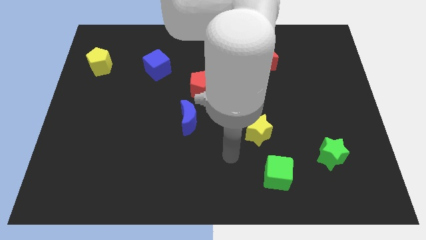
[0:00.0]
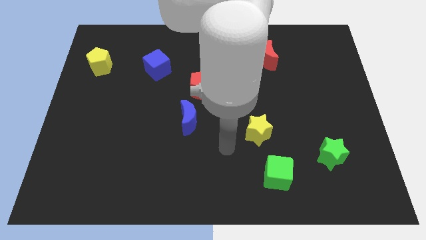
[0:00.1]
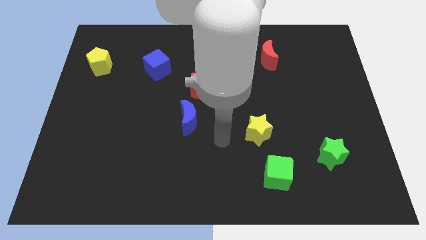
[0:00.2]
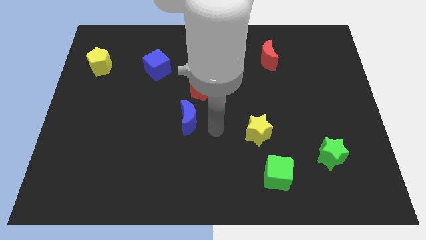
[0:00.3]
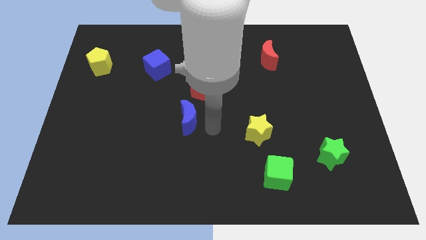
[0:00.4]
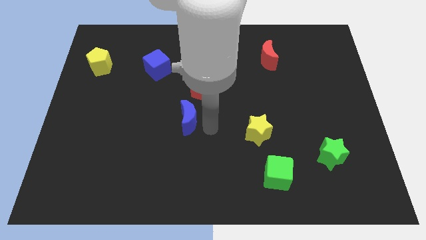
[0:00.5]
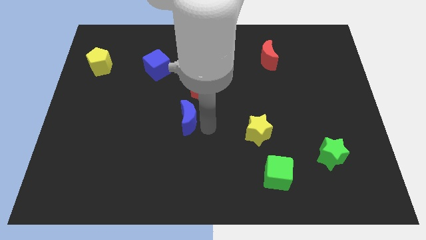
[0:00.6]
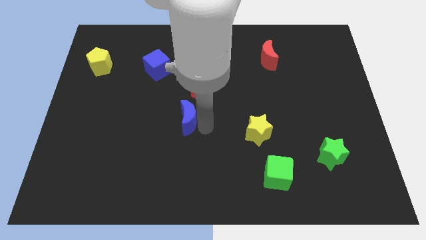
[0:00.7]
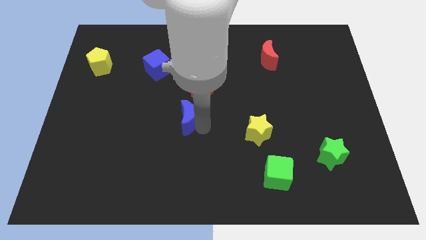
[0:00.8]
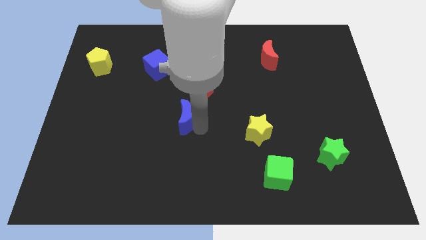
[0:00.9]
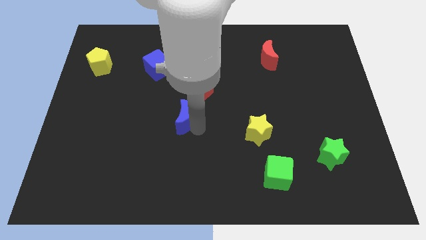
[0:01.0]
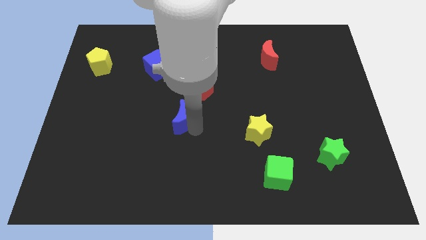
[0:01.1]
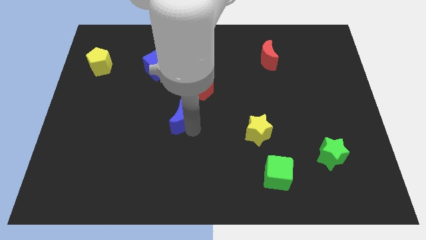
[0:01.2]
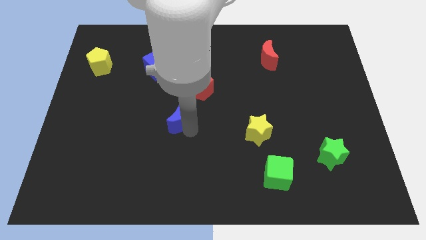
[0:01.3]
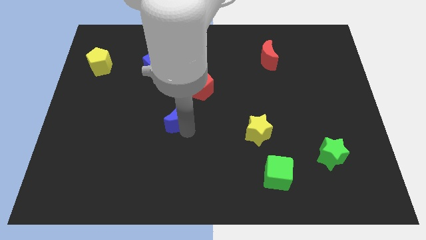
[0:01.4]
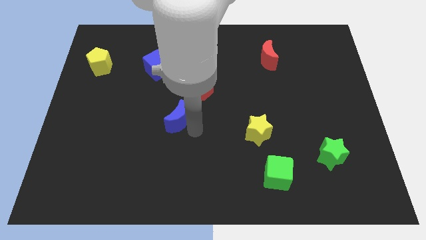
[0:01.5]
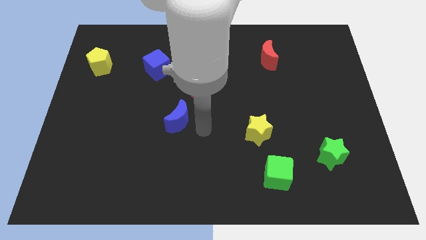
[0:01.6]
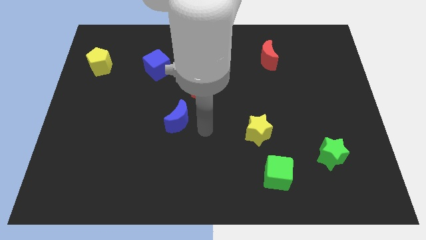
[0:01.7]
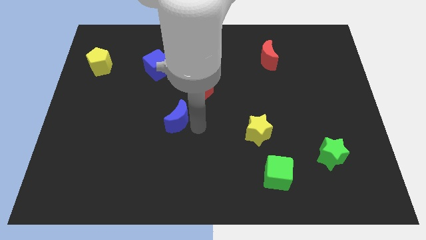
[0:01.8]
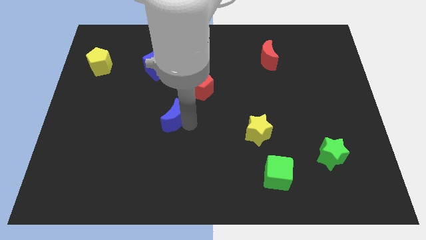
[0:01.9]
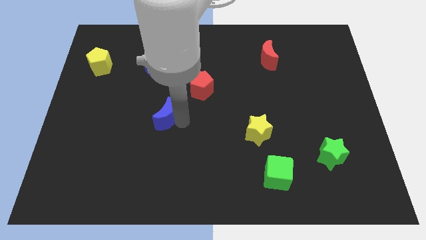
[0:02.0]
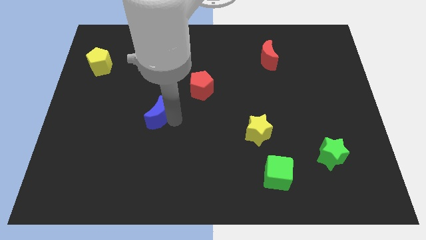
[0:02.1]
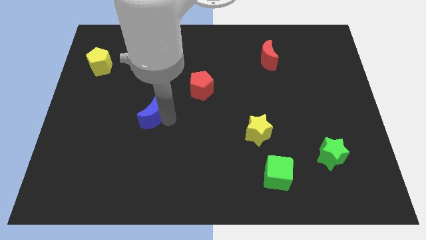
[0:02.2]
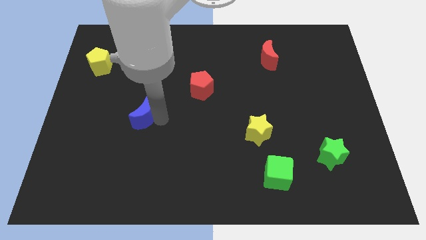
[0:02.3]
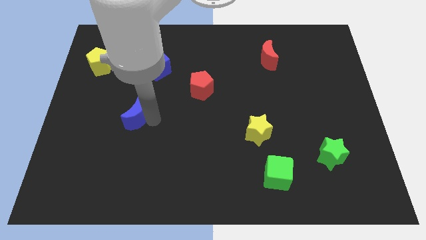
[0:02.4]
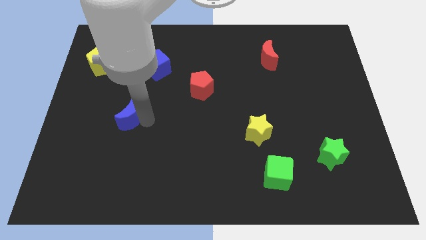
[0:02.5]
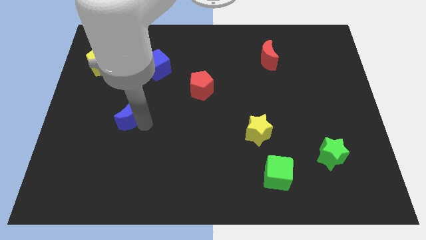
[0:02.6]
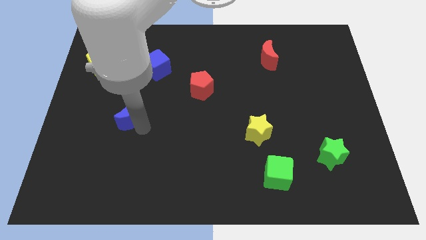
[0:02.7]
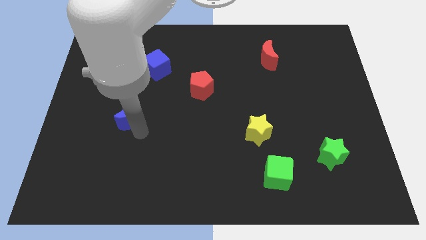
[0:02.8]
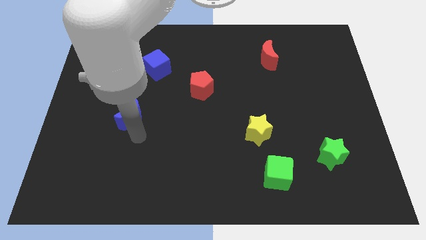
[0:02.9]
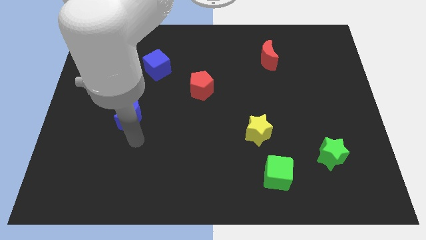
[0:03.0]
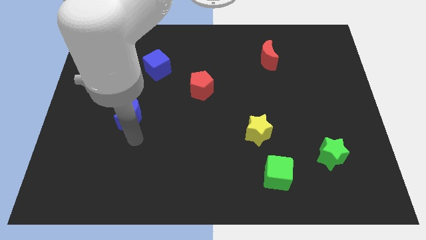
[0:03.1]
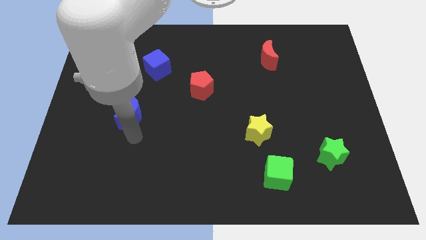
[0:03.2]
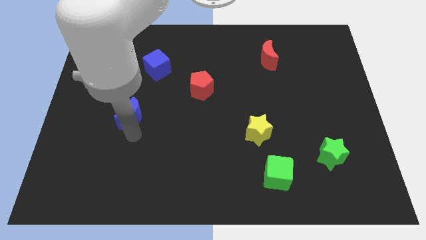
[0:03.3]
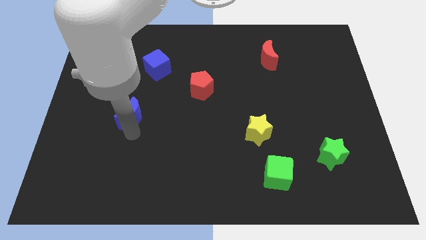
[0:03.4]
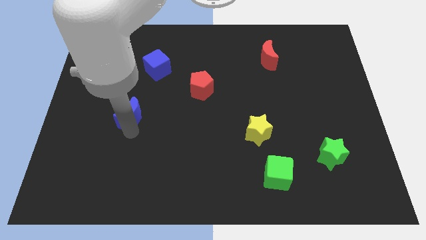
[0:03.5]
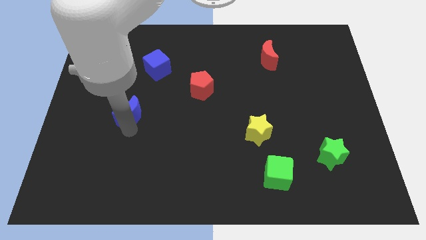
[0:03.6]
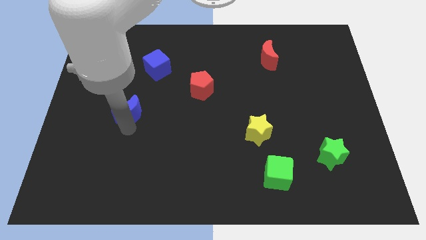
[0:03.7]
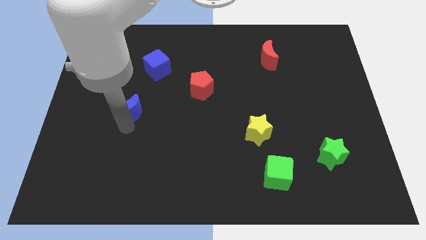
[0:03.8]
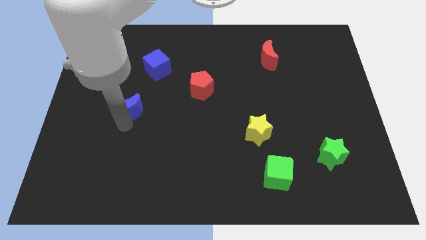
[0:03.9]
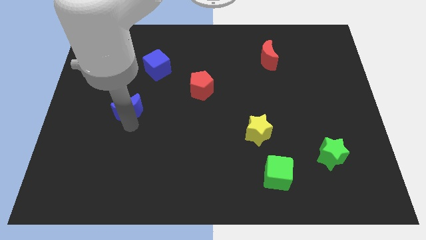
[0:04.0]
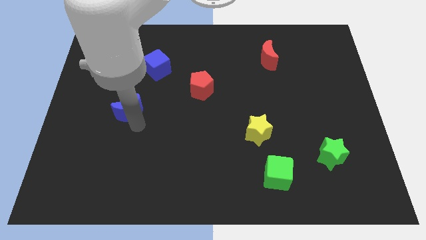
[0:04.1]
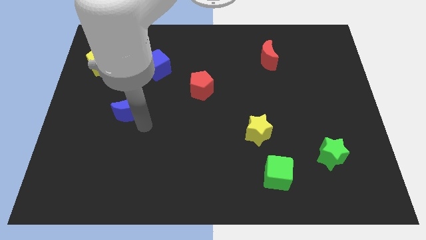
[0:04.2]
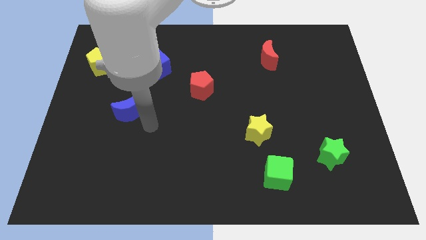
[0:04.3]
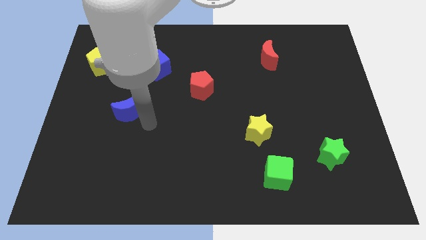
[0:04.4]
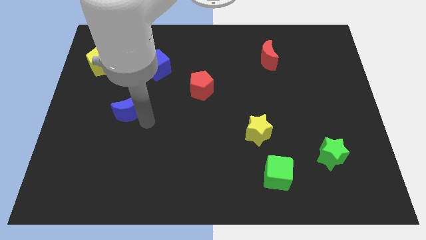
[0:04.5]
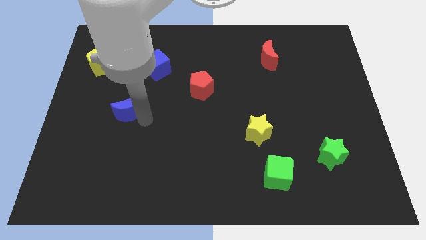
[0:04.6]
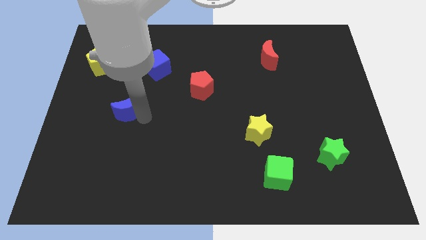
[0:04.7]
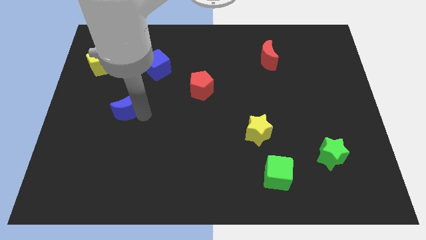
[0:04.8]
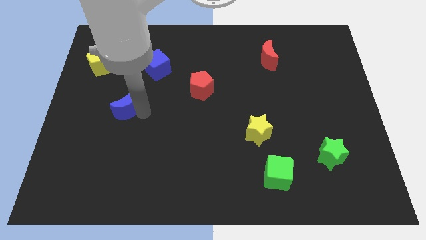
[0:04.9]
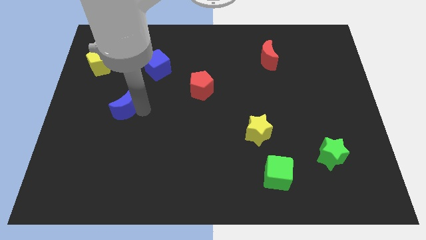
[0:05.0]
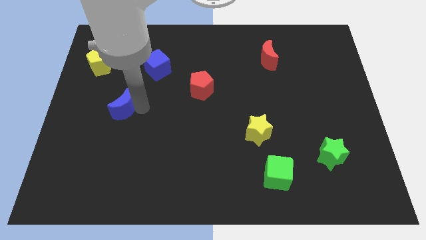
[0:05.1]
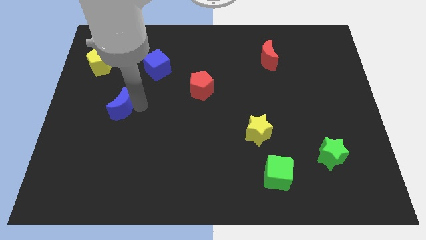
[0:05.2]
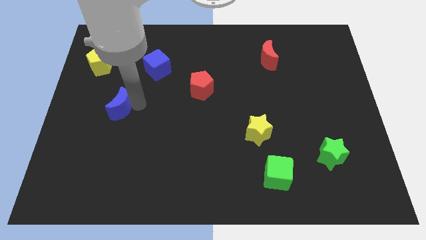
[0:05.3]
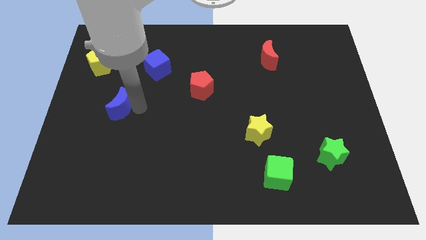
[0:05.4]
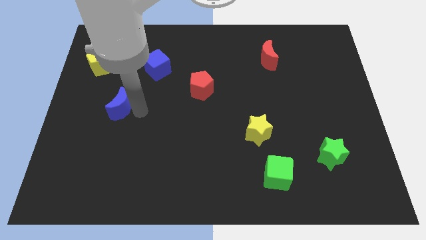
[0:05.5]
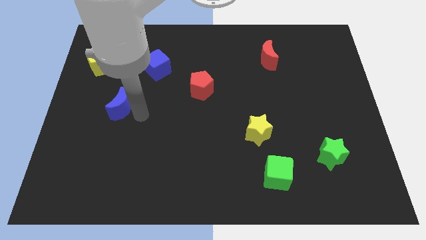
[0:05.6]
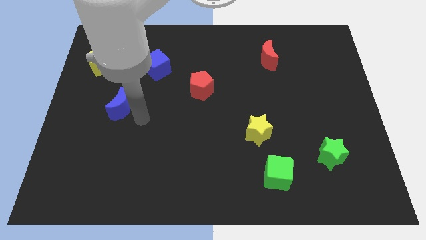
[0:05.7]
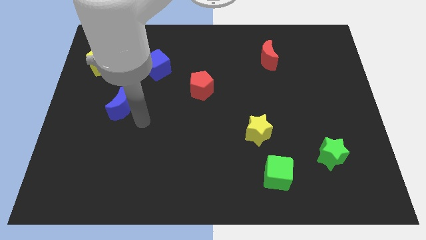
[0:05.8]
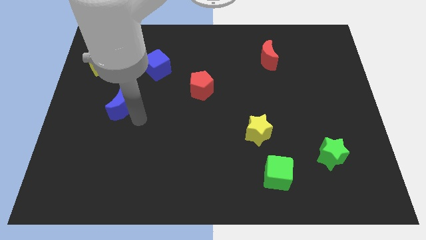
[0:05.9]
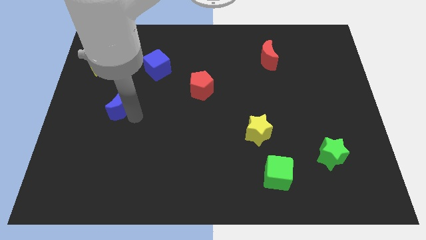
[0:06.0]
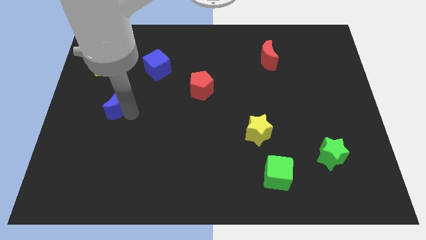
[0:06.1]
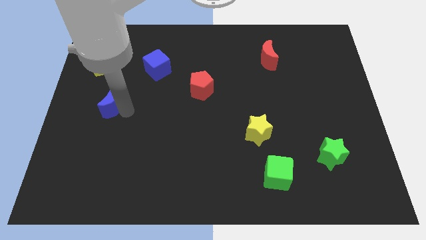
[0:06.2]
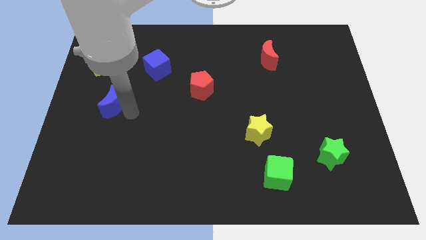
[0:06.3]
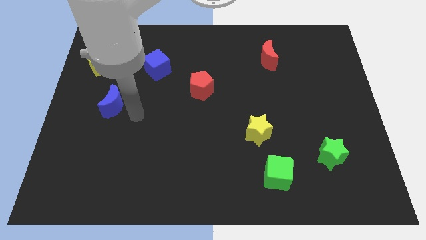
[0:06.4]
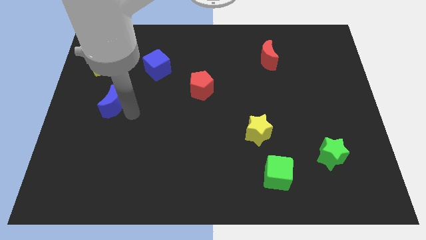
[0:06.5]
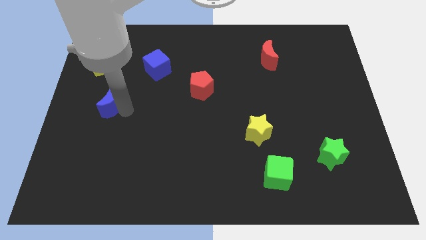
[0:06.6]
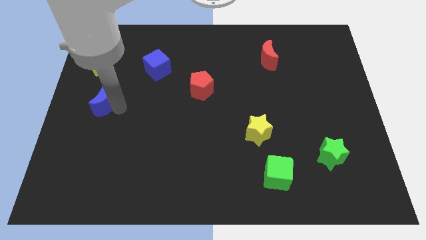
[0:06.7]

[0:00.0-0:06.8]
put the blue moon to the bottom side of the yellow pentagon

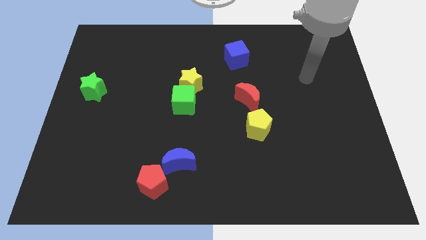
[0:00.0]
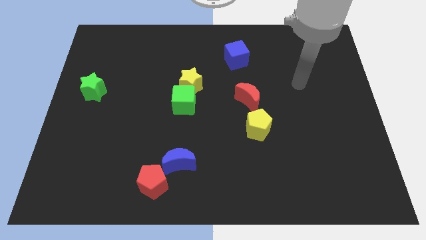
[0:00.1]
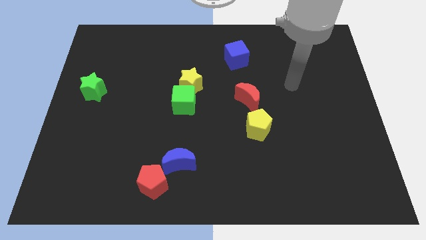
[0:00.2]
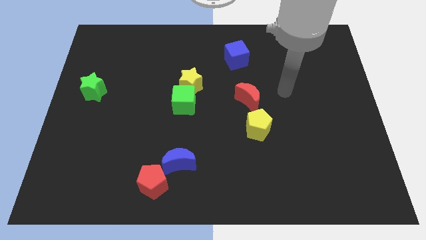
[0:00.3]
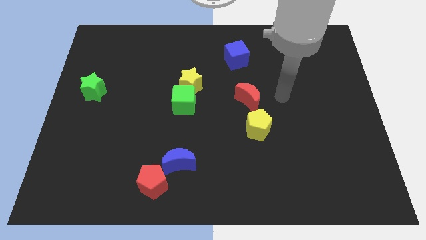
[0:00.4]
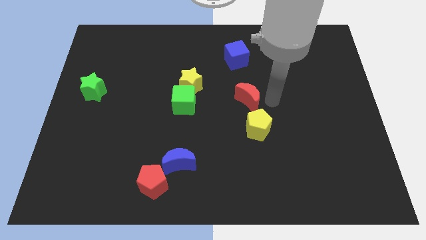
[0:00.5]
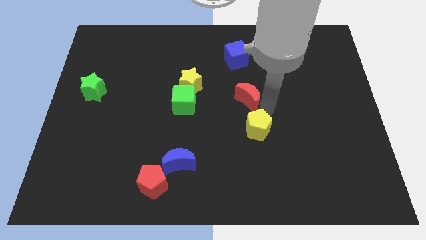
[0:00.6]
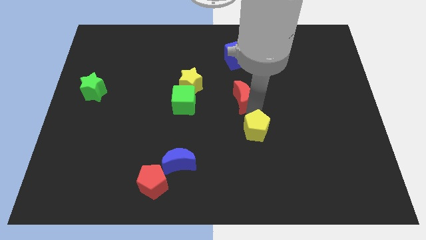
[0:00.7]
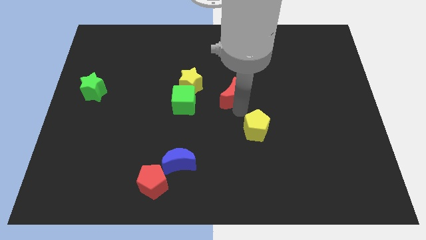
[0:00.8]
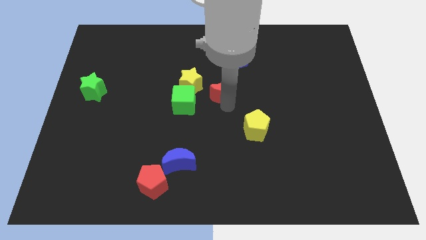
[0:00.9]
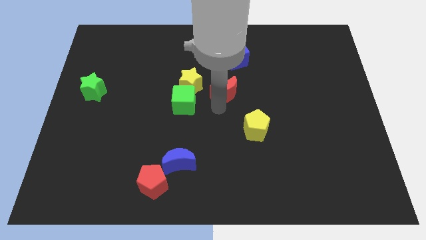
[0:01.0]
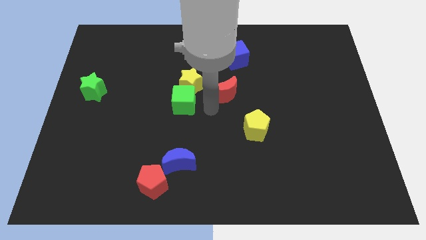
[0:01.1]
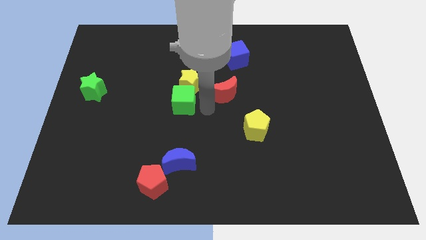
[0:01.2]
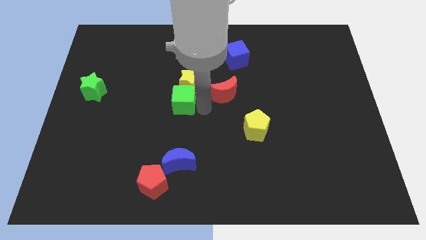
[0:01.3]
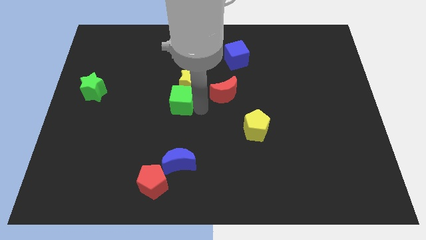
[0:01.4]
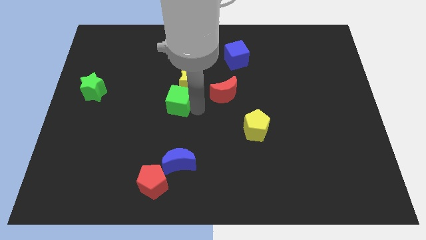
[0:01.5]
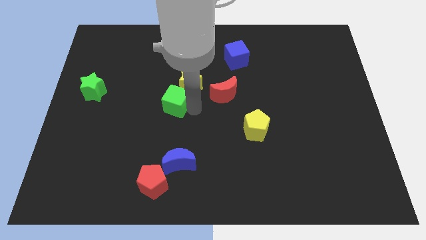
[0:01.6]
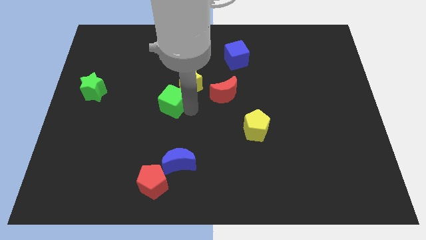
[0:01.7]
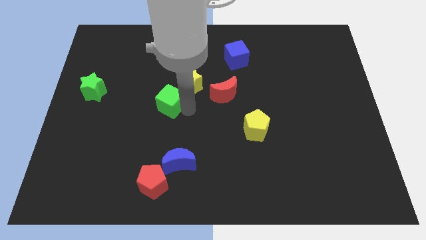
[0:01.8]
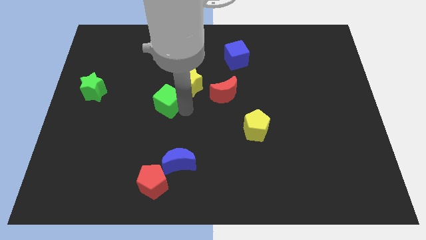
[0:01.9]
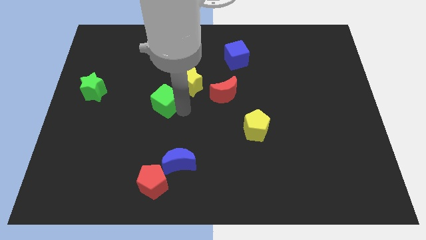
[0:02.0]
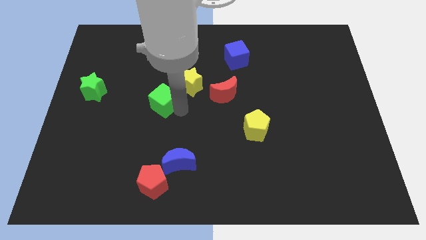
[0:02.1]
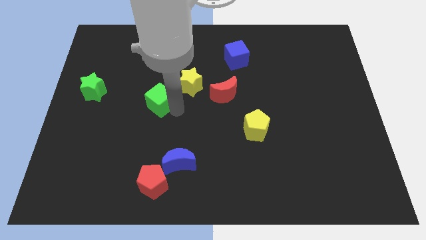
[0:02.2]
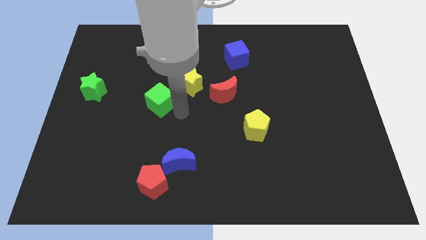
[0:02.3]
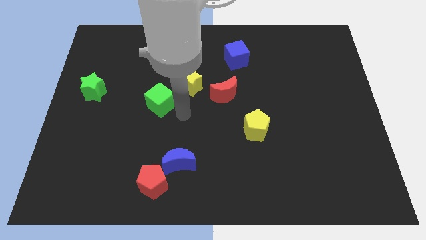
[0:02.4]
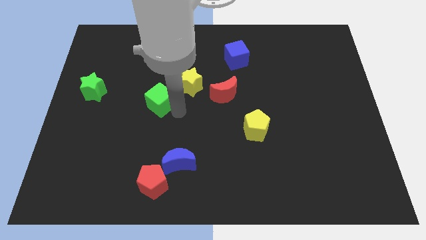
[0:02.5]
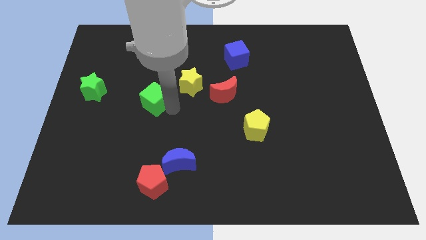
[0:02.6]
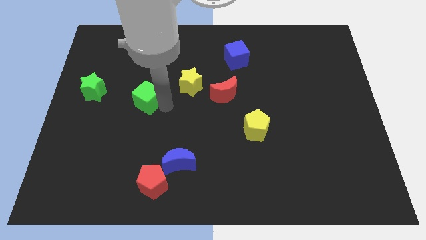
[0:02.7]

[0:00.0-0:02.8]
move the green cube to the right of the green star
